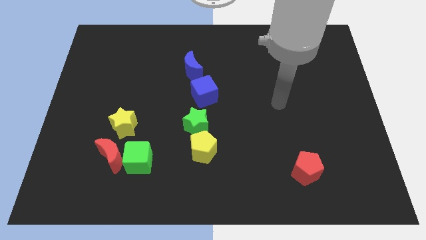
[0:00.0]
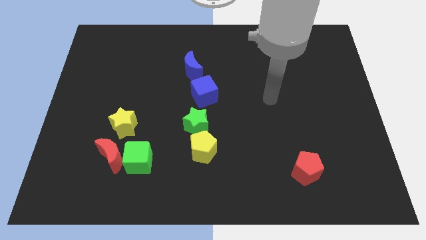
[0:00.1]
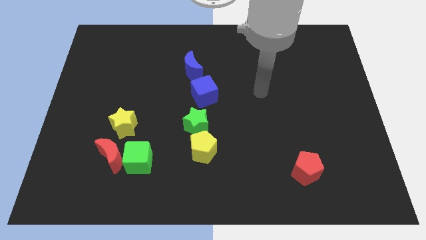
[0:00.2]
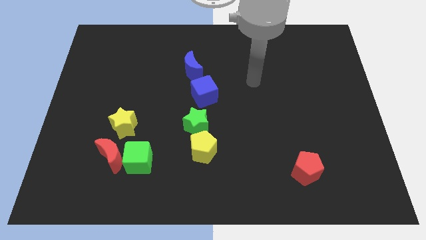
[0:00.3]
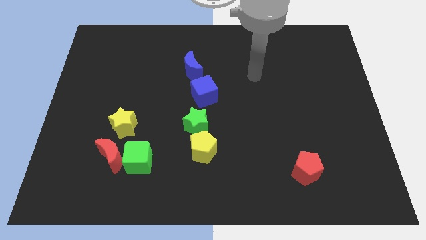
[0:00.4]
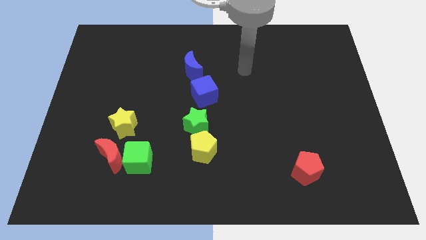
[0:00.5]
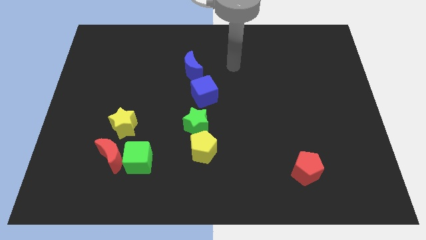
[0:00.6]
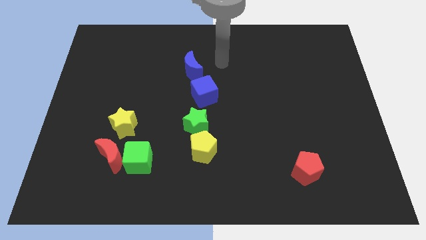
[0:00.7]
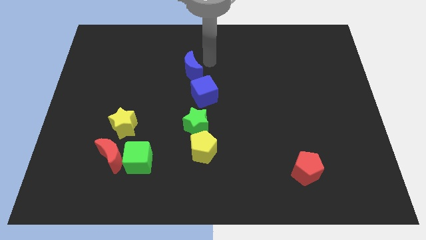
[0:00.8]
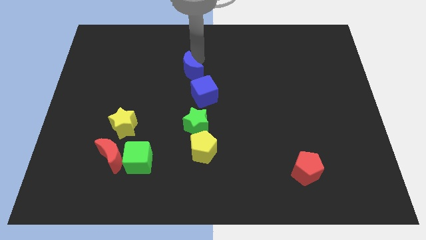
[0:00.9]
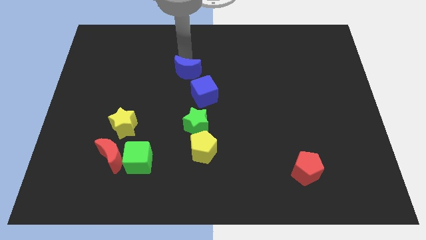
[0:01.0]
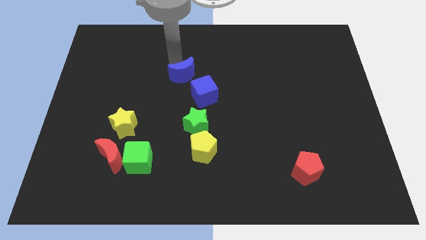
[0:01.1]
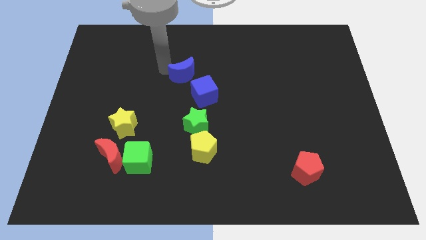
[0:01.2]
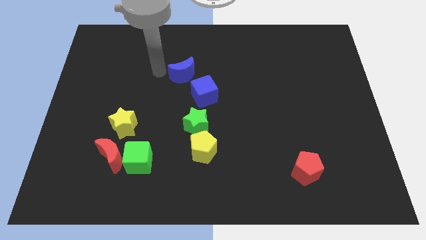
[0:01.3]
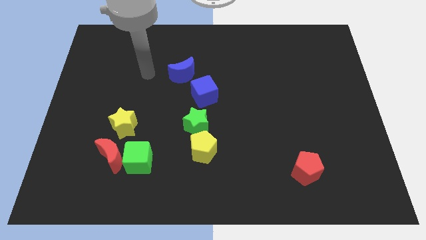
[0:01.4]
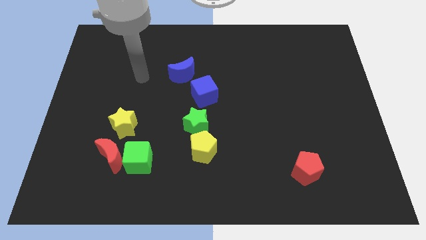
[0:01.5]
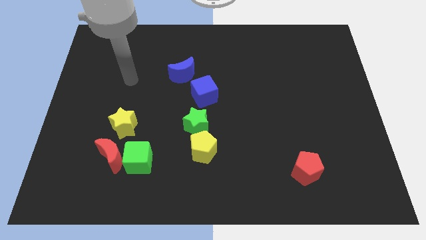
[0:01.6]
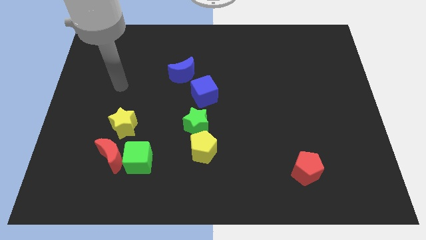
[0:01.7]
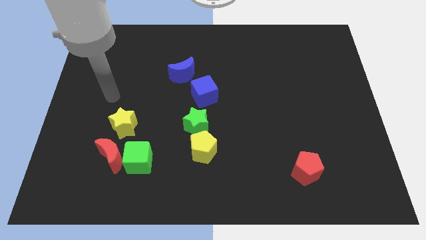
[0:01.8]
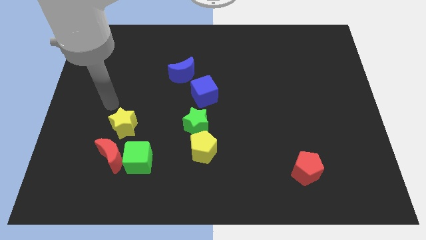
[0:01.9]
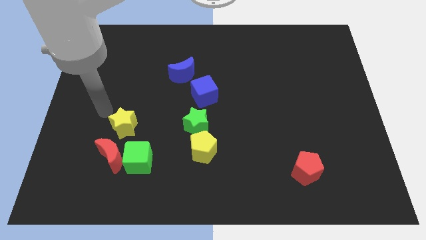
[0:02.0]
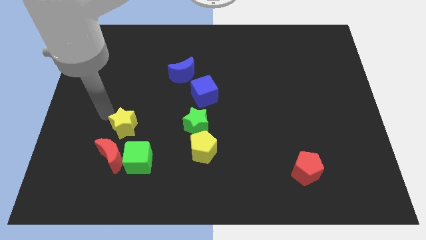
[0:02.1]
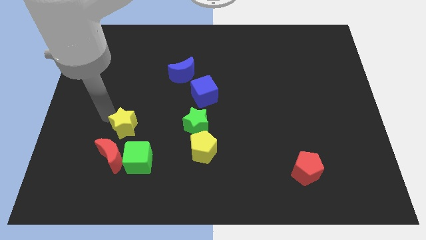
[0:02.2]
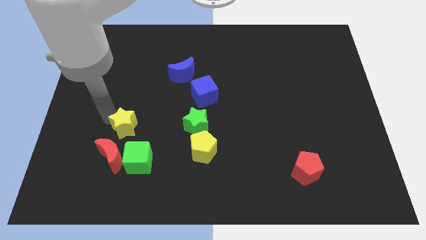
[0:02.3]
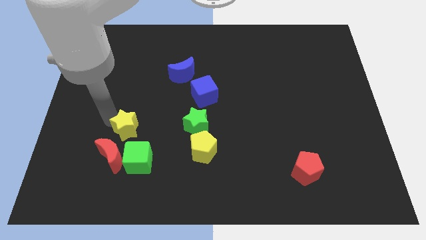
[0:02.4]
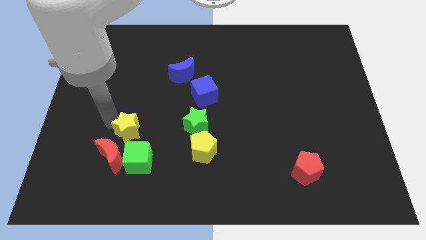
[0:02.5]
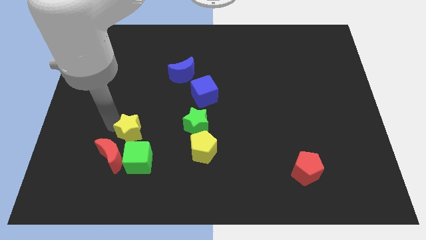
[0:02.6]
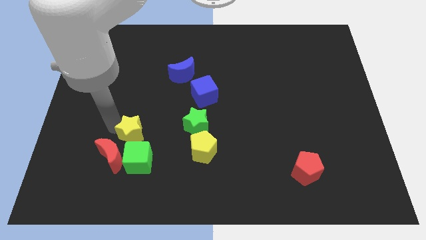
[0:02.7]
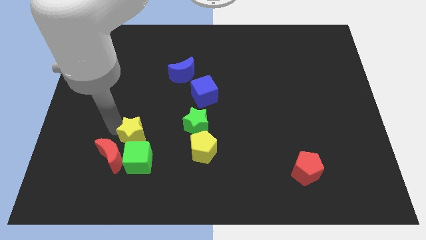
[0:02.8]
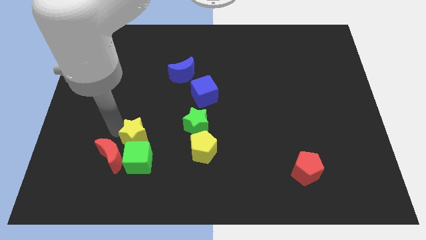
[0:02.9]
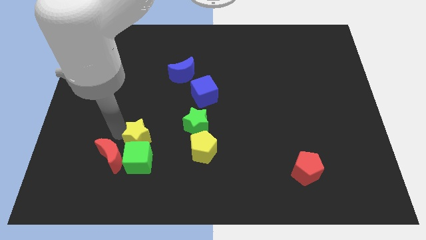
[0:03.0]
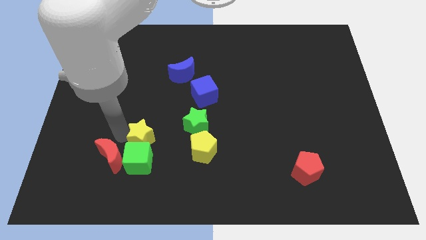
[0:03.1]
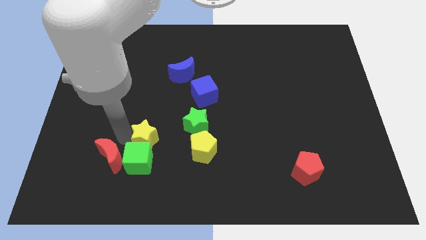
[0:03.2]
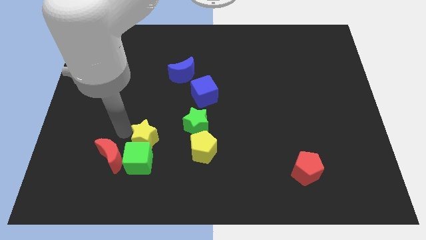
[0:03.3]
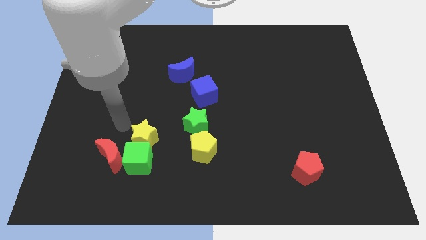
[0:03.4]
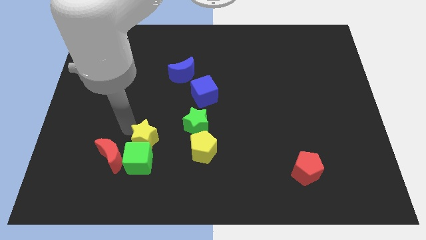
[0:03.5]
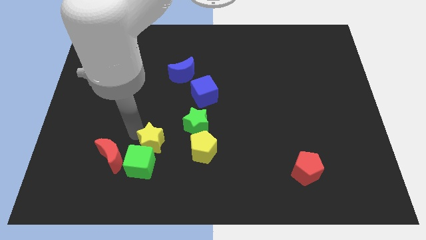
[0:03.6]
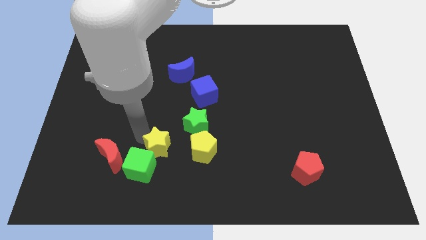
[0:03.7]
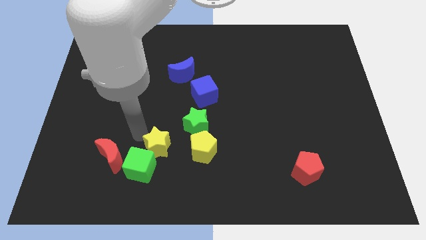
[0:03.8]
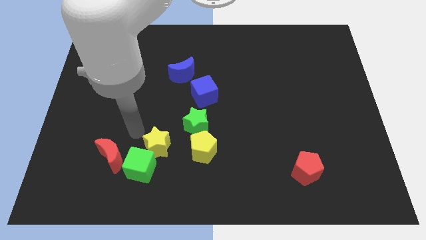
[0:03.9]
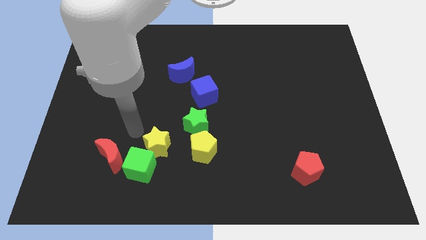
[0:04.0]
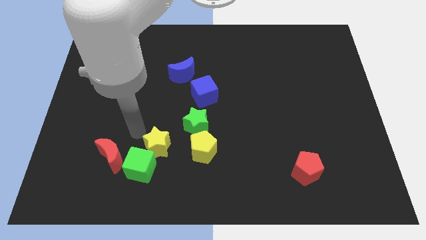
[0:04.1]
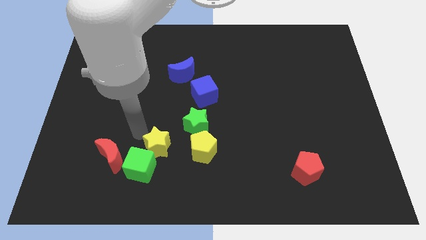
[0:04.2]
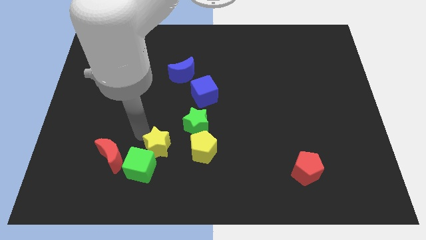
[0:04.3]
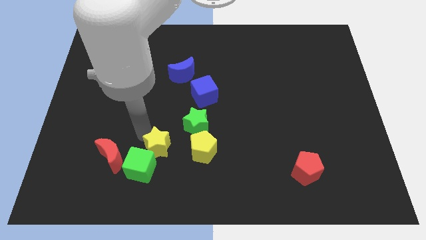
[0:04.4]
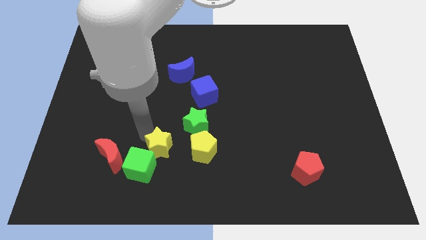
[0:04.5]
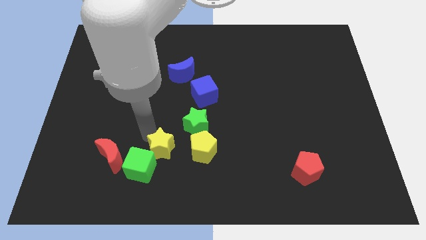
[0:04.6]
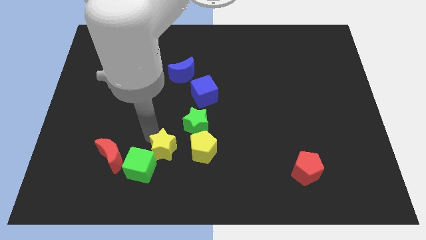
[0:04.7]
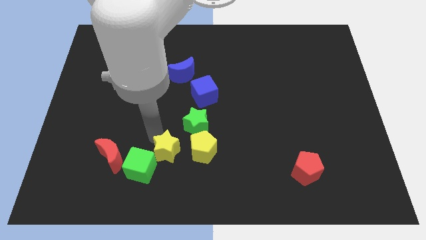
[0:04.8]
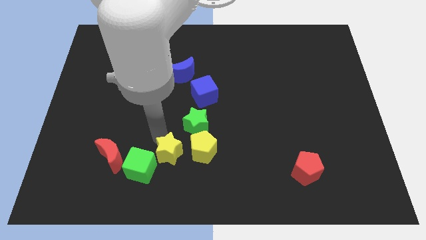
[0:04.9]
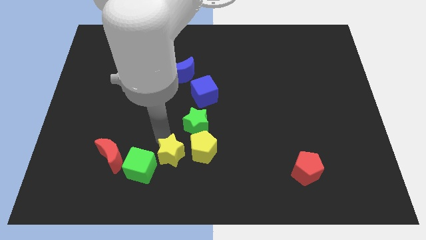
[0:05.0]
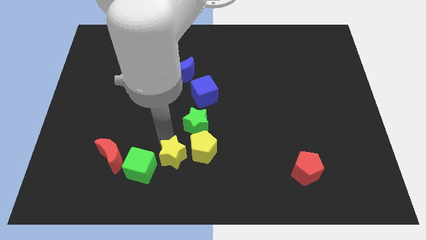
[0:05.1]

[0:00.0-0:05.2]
move the yellow star below the green star

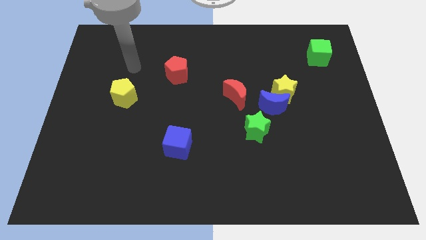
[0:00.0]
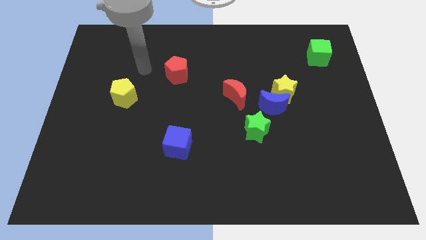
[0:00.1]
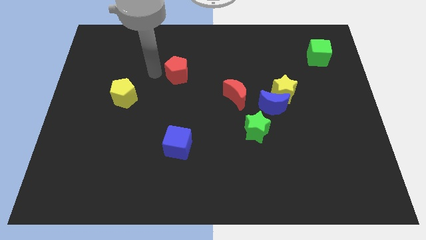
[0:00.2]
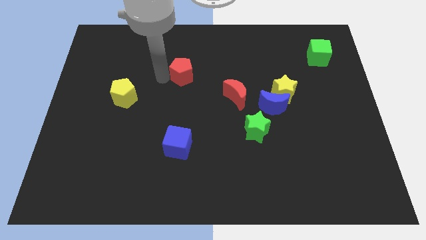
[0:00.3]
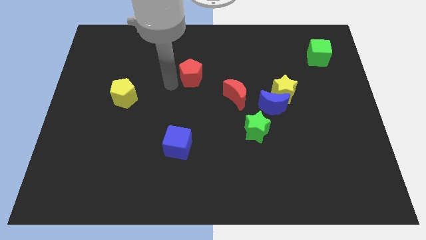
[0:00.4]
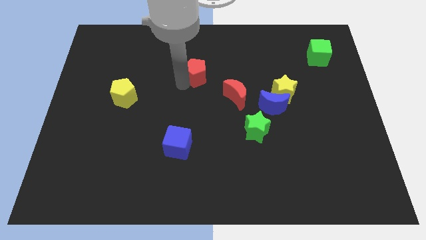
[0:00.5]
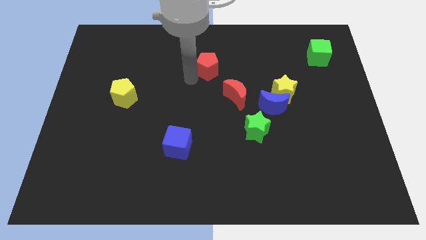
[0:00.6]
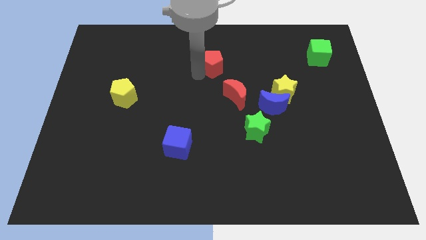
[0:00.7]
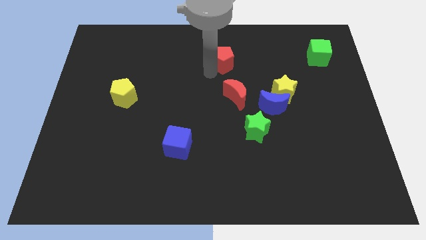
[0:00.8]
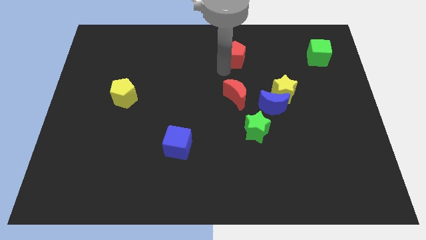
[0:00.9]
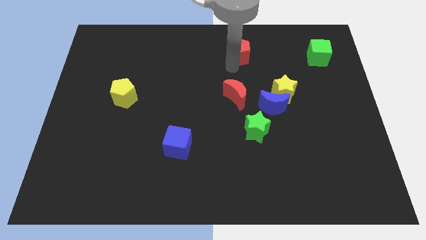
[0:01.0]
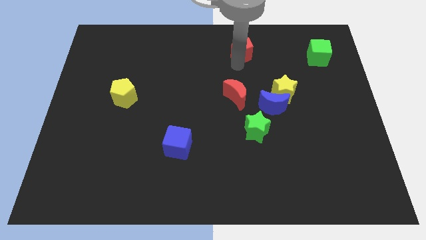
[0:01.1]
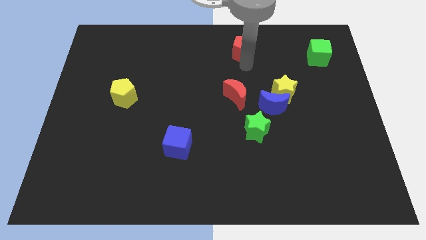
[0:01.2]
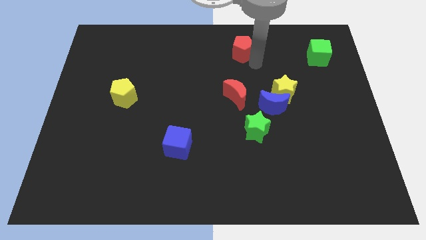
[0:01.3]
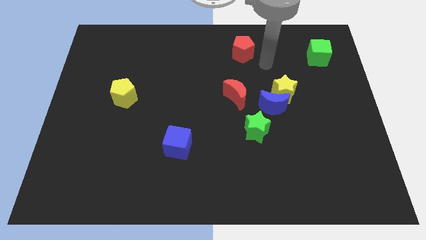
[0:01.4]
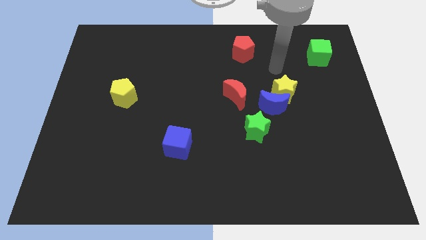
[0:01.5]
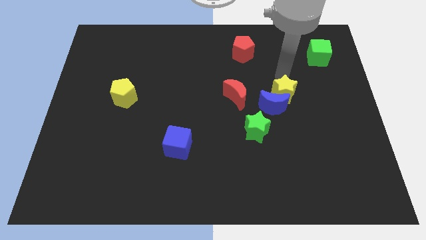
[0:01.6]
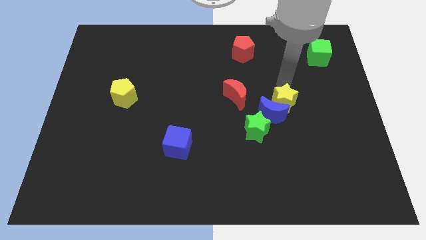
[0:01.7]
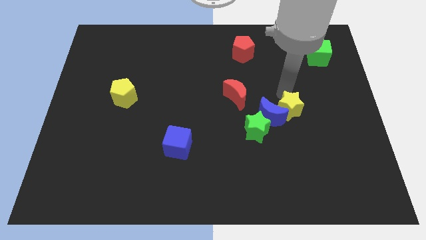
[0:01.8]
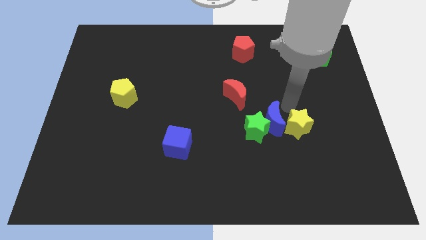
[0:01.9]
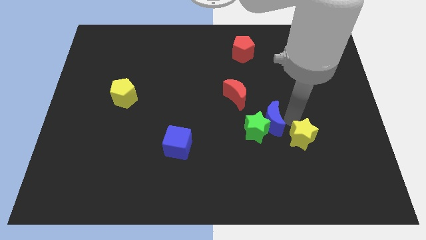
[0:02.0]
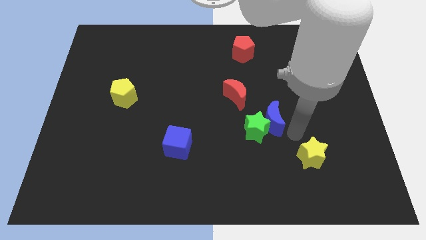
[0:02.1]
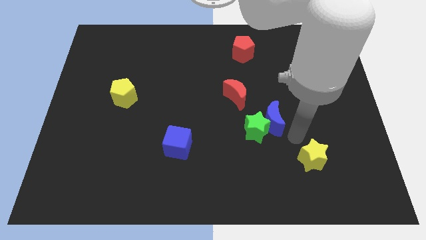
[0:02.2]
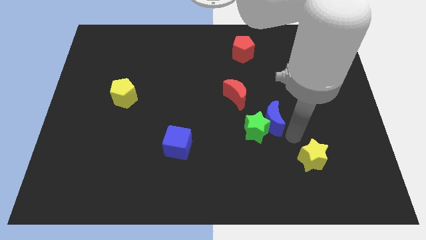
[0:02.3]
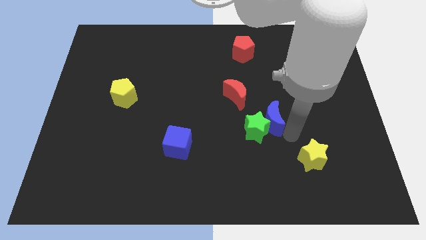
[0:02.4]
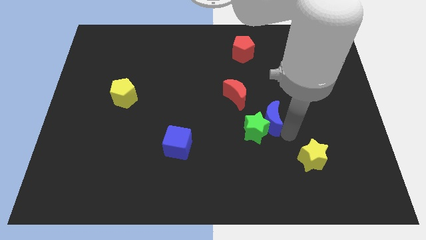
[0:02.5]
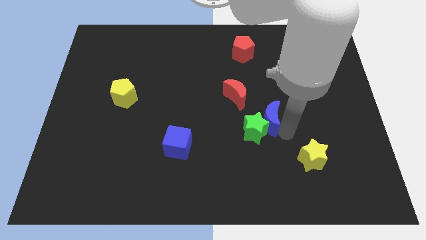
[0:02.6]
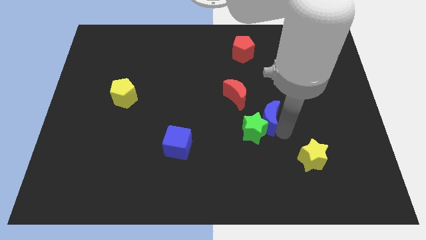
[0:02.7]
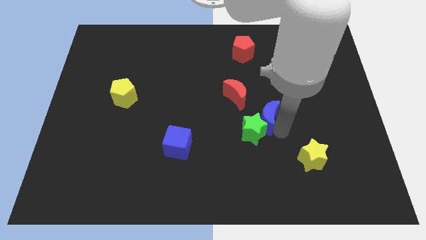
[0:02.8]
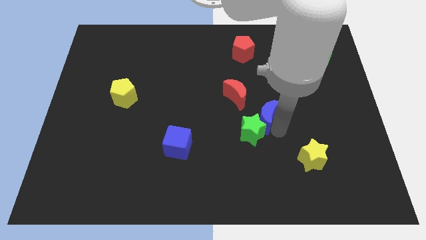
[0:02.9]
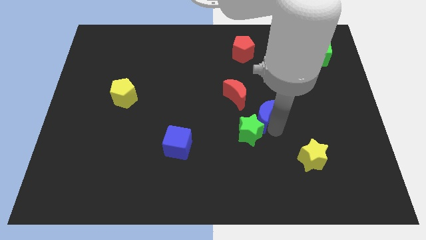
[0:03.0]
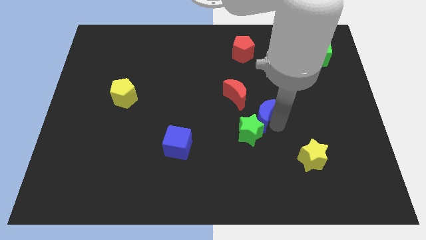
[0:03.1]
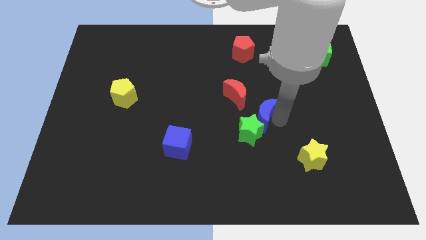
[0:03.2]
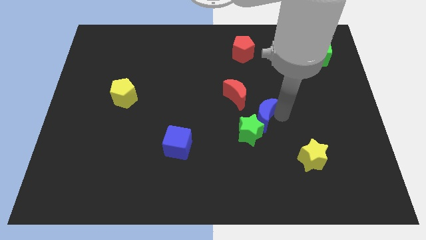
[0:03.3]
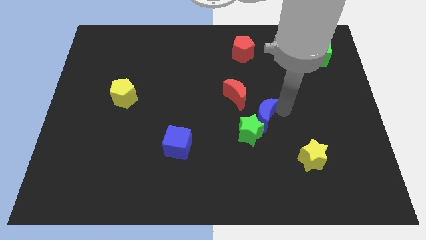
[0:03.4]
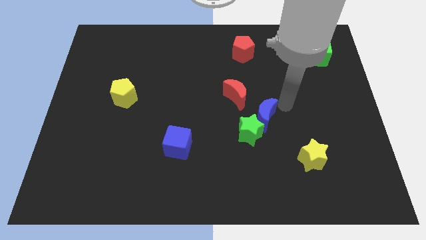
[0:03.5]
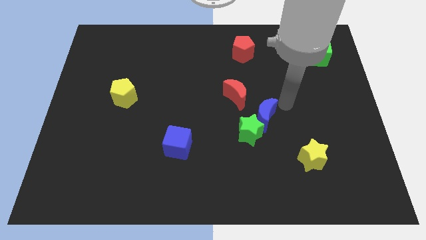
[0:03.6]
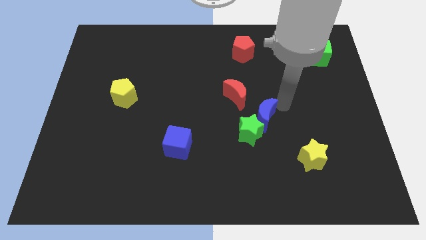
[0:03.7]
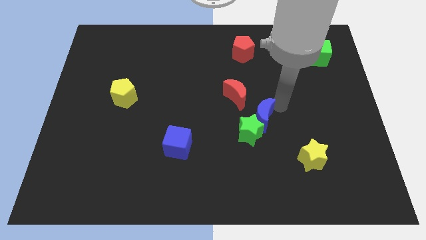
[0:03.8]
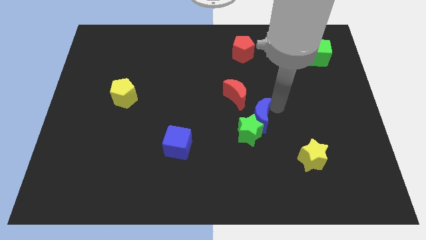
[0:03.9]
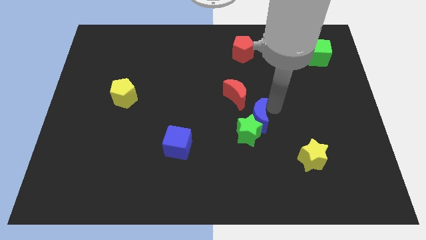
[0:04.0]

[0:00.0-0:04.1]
put the blue moon to the bottom side of the red moon
